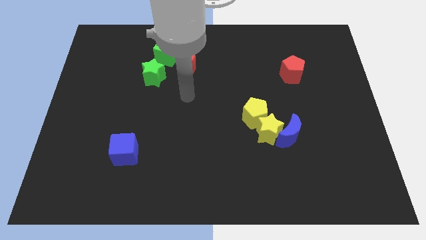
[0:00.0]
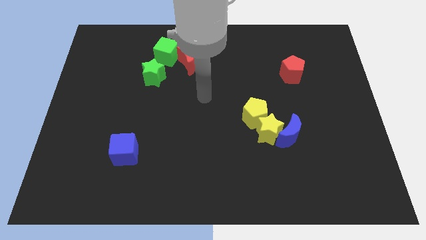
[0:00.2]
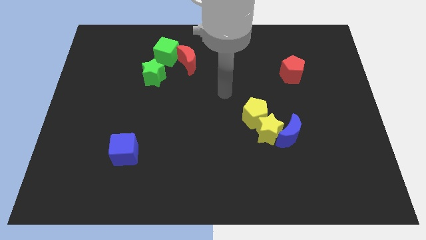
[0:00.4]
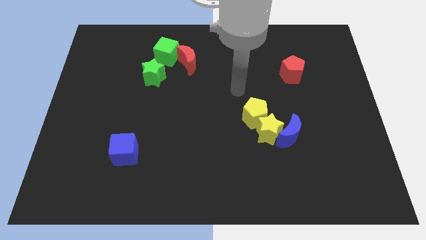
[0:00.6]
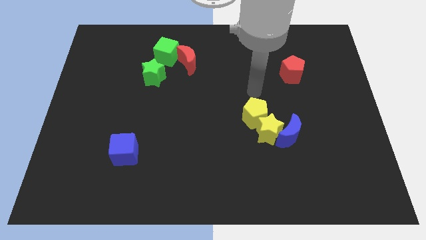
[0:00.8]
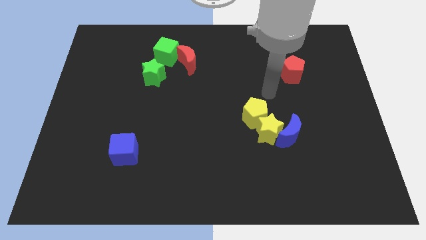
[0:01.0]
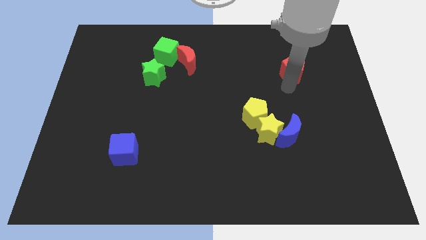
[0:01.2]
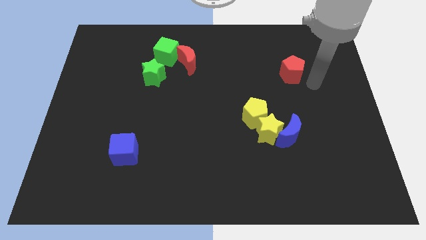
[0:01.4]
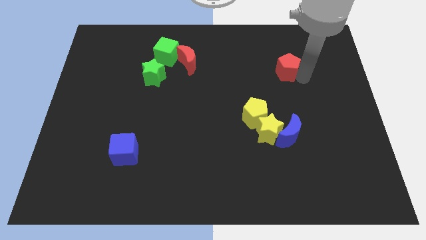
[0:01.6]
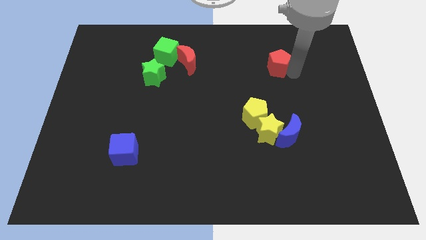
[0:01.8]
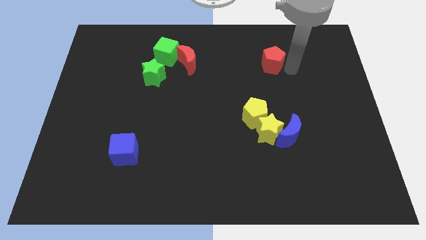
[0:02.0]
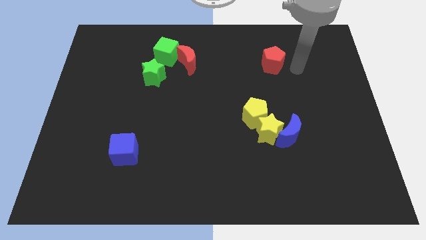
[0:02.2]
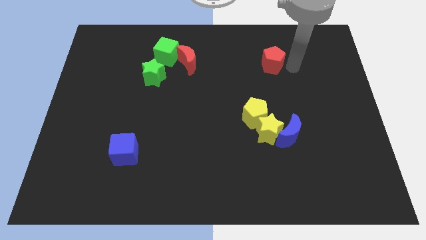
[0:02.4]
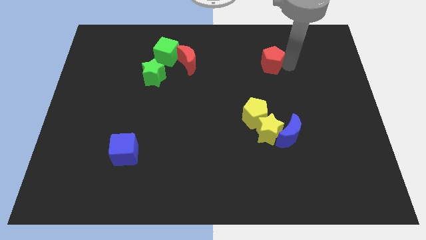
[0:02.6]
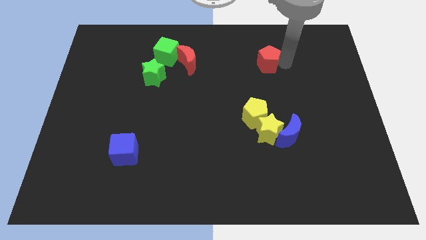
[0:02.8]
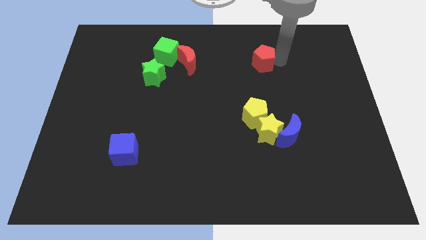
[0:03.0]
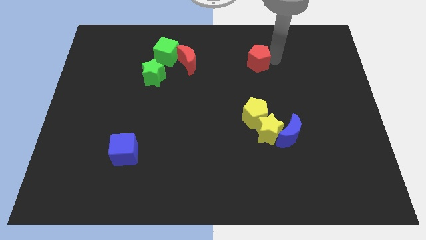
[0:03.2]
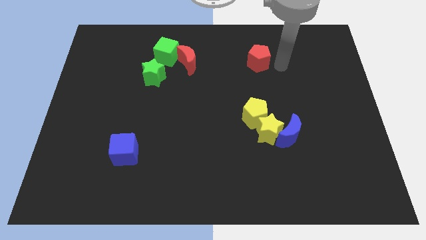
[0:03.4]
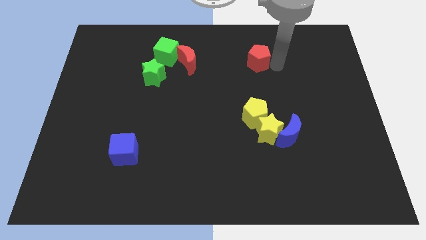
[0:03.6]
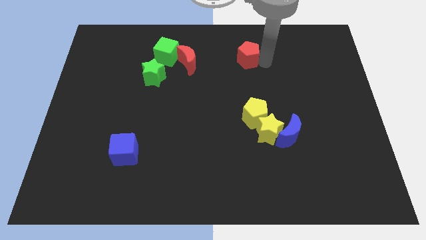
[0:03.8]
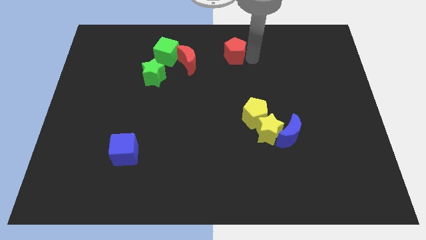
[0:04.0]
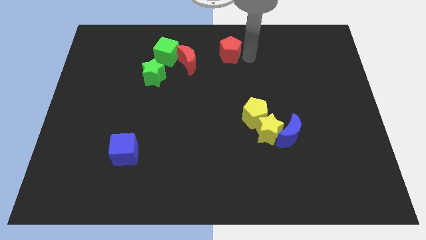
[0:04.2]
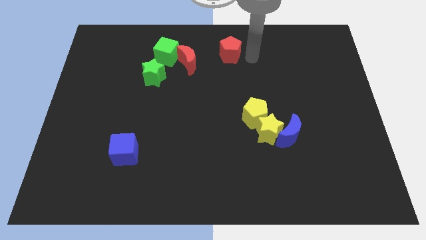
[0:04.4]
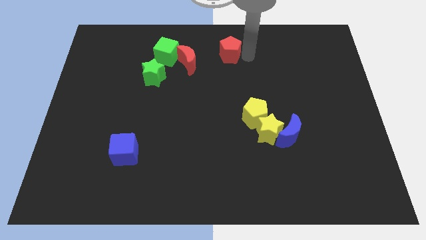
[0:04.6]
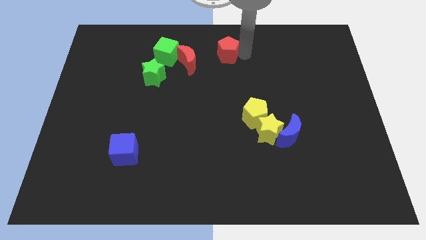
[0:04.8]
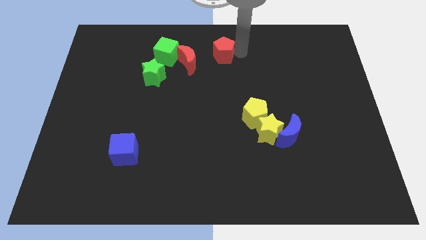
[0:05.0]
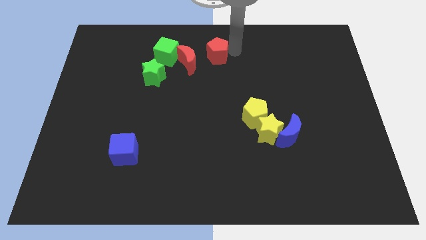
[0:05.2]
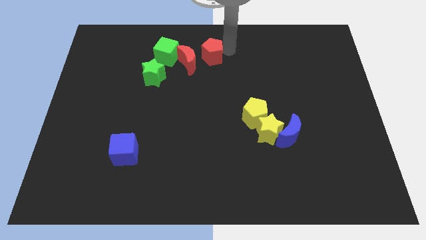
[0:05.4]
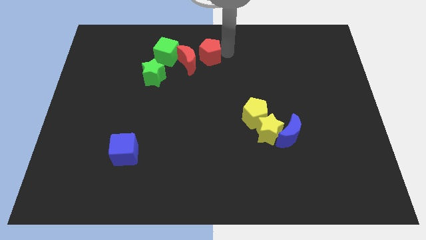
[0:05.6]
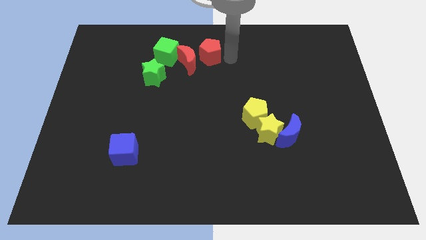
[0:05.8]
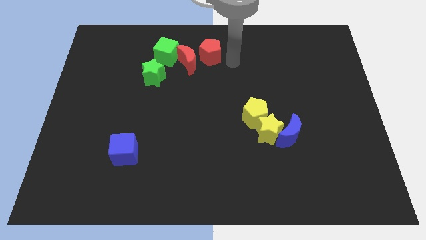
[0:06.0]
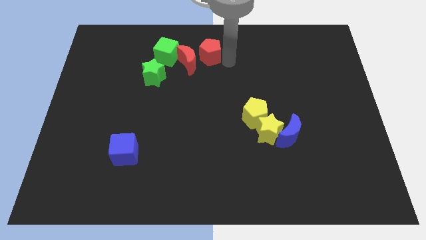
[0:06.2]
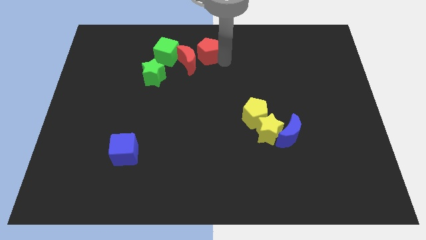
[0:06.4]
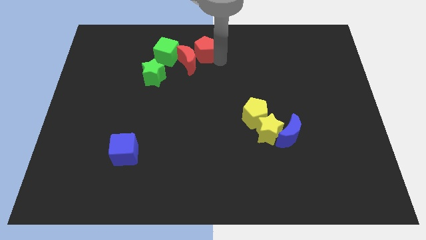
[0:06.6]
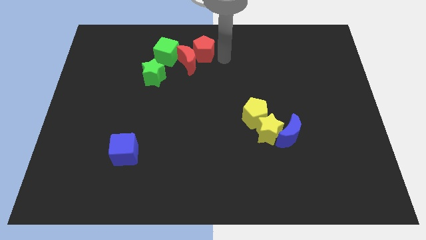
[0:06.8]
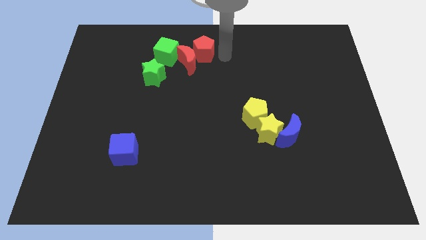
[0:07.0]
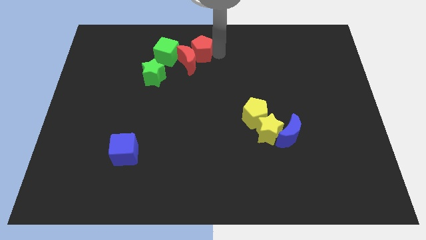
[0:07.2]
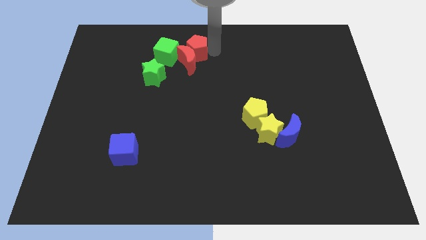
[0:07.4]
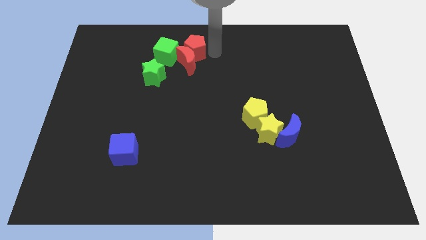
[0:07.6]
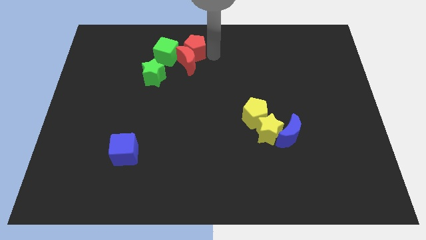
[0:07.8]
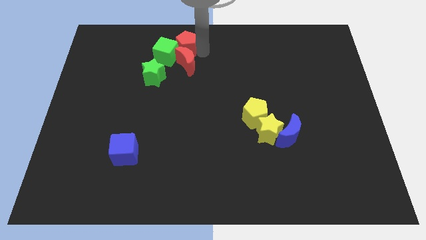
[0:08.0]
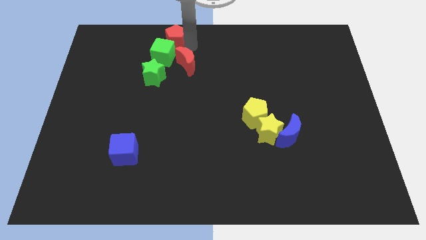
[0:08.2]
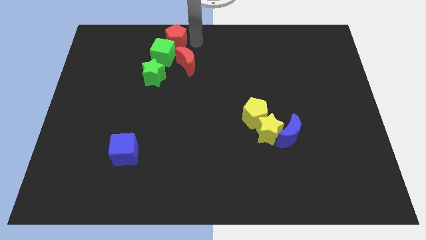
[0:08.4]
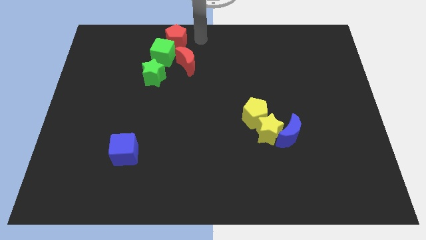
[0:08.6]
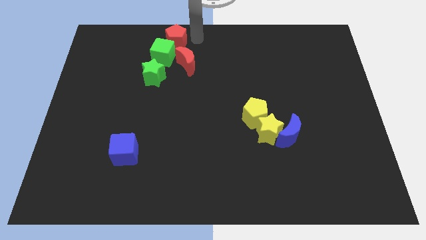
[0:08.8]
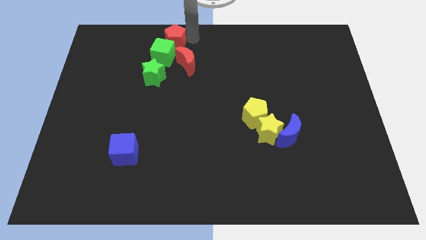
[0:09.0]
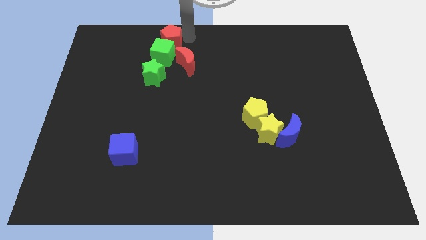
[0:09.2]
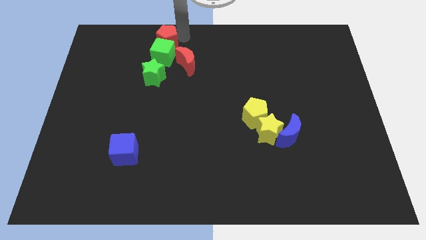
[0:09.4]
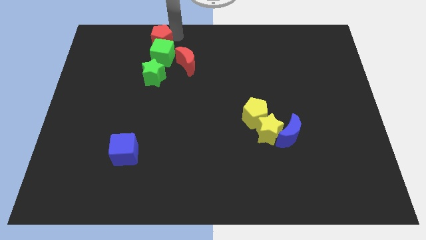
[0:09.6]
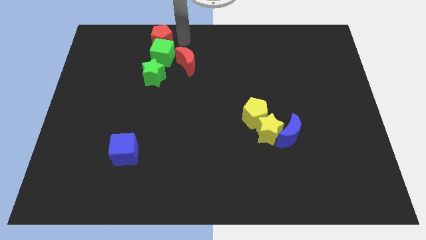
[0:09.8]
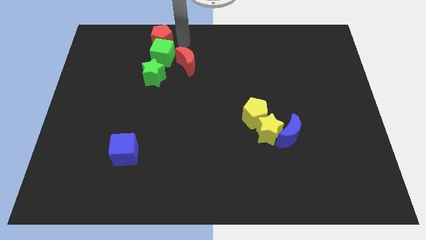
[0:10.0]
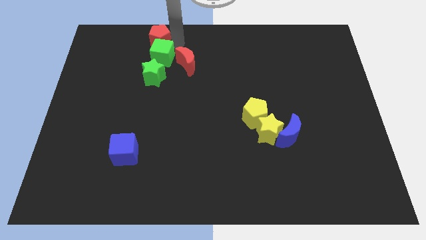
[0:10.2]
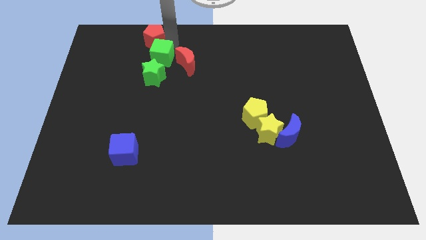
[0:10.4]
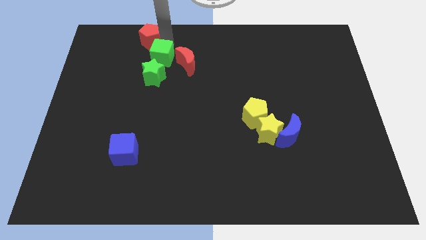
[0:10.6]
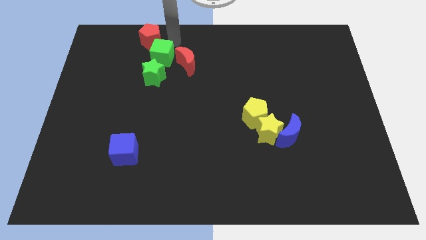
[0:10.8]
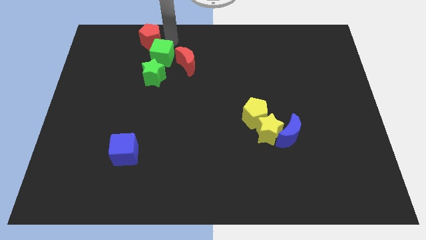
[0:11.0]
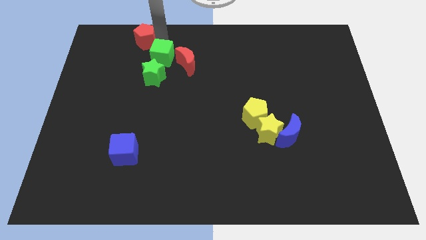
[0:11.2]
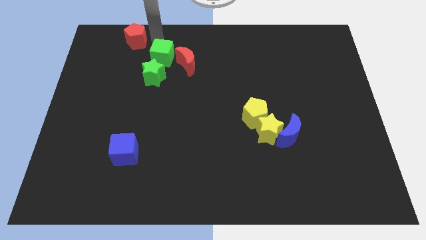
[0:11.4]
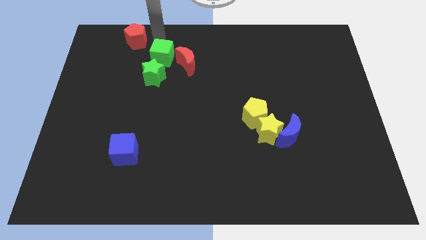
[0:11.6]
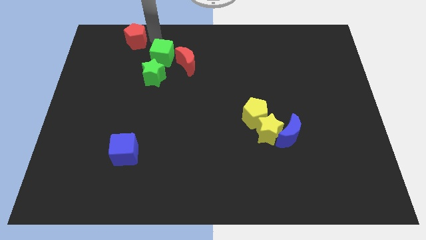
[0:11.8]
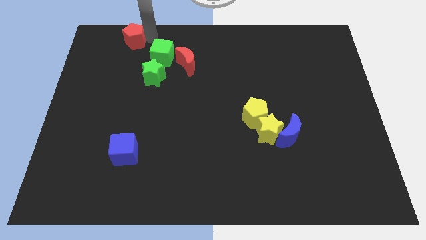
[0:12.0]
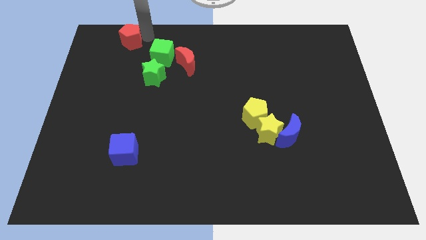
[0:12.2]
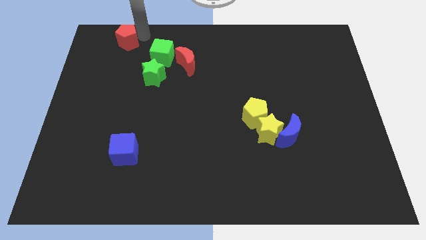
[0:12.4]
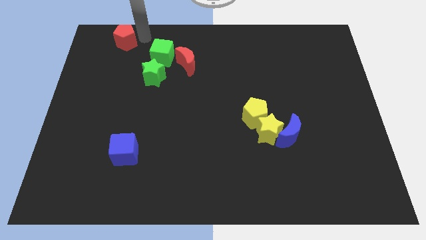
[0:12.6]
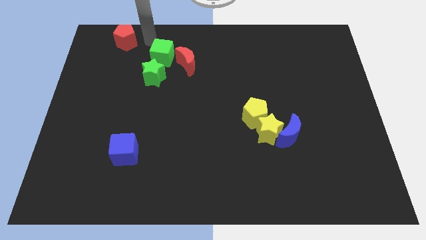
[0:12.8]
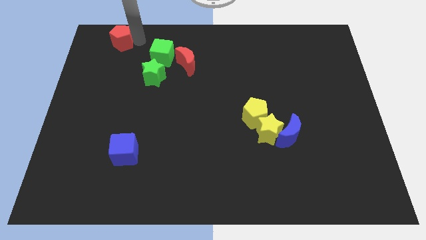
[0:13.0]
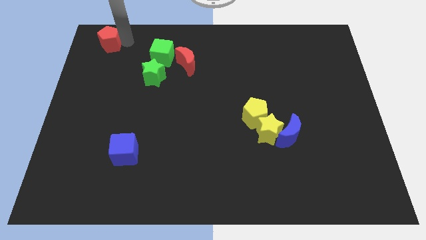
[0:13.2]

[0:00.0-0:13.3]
move the red pentagon to the upper left corner

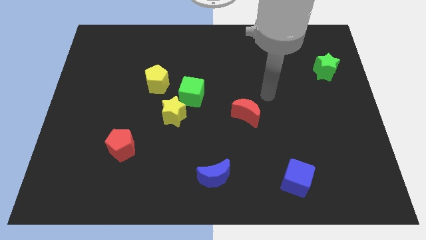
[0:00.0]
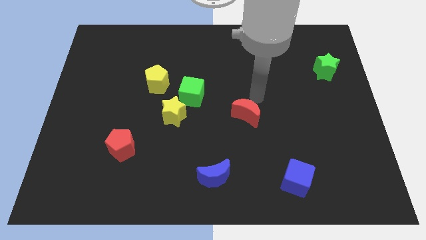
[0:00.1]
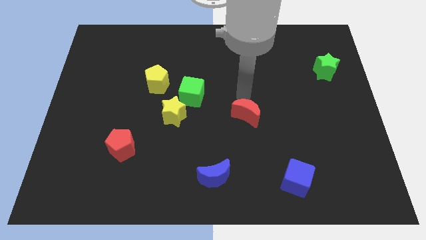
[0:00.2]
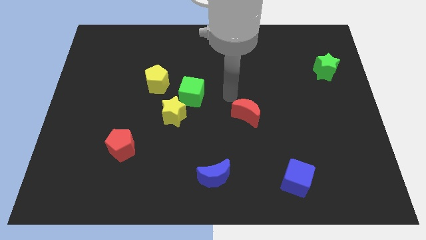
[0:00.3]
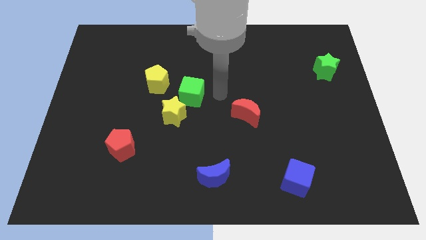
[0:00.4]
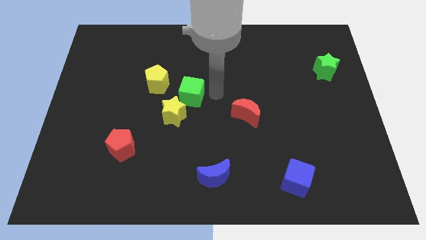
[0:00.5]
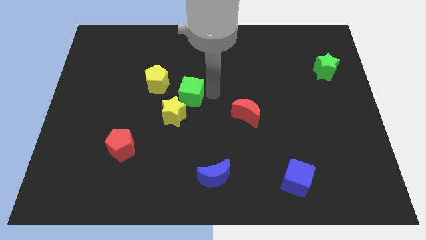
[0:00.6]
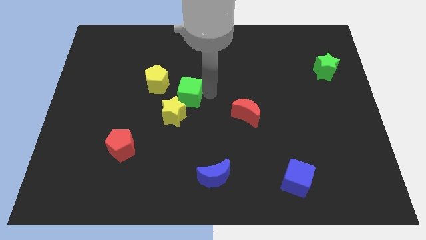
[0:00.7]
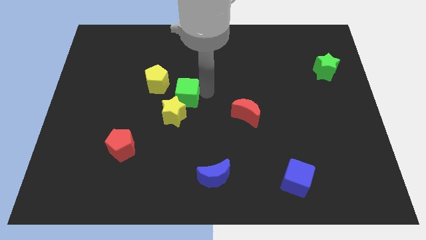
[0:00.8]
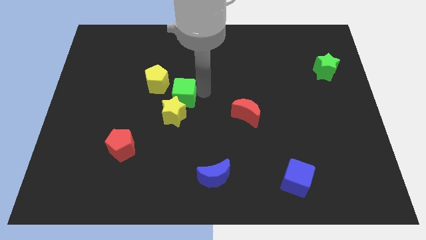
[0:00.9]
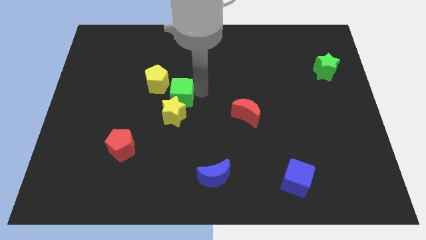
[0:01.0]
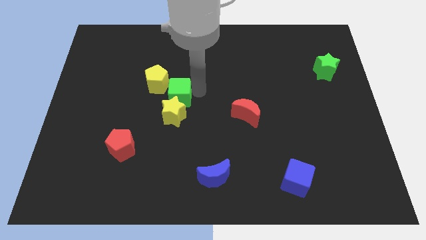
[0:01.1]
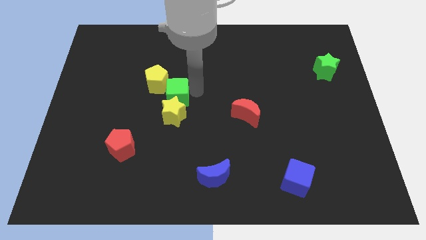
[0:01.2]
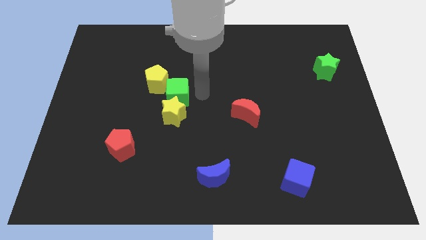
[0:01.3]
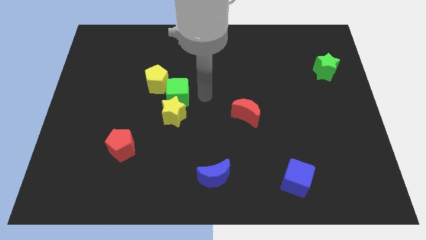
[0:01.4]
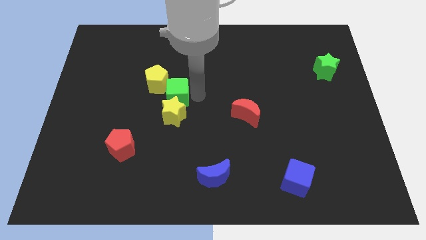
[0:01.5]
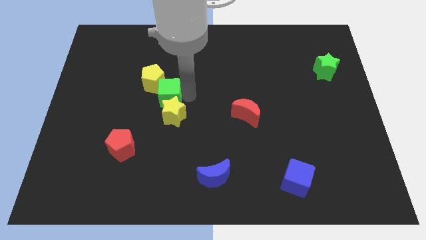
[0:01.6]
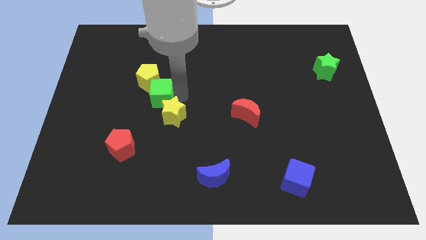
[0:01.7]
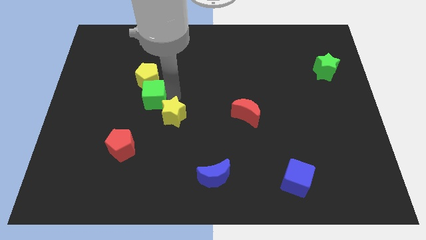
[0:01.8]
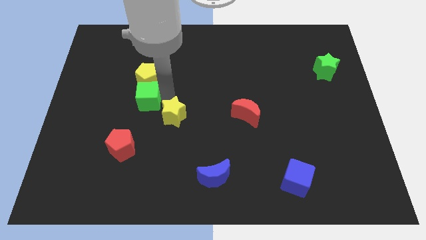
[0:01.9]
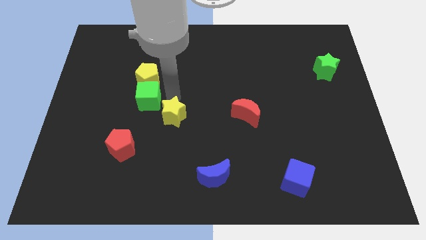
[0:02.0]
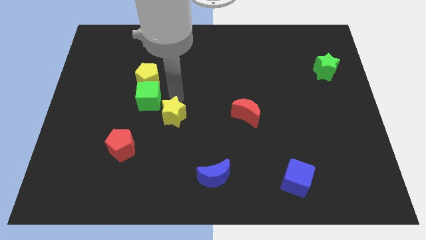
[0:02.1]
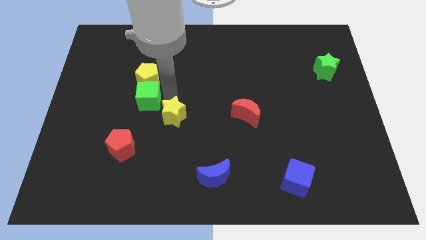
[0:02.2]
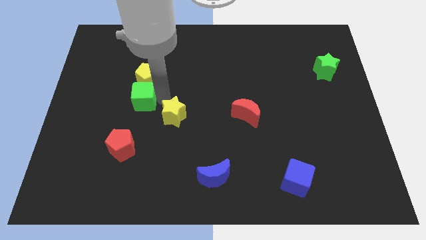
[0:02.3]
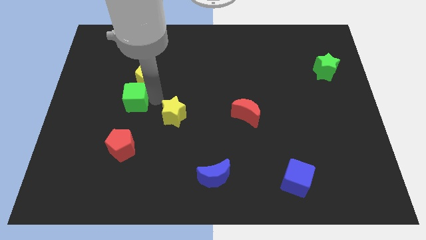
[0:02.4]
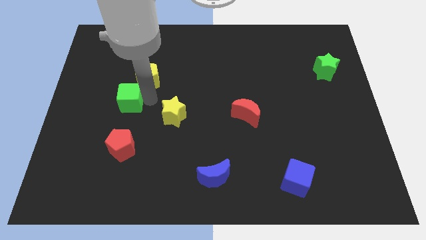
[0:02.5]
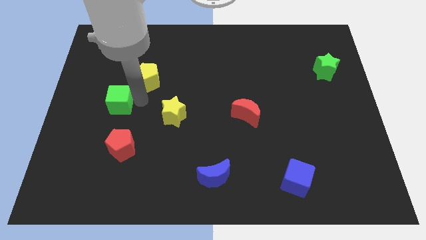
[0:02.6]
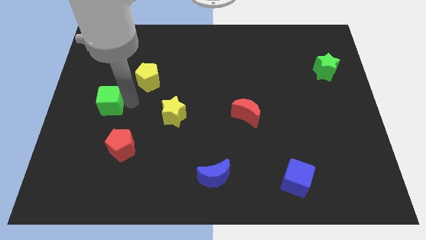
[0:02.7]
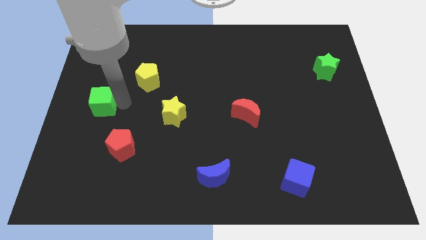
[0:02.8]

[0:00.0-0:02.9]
move the green cube to the left side of the board
